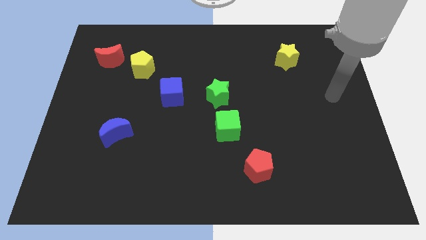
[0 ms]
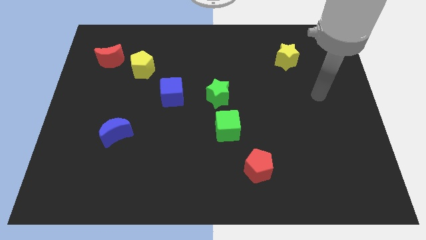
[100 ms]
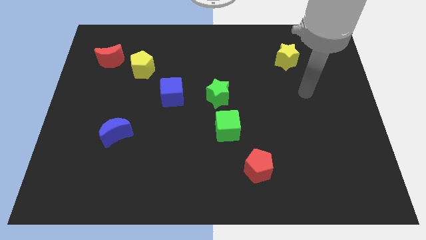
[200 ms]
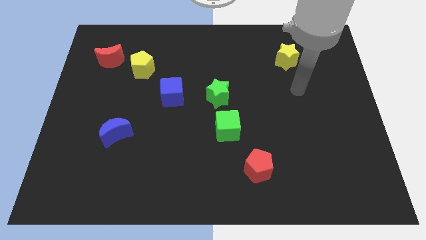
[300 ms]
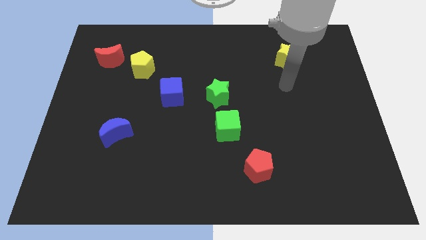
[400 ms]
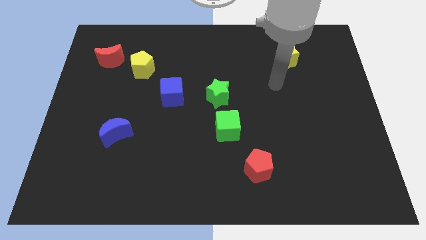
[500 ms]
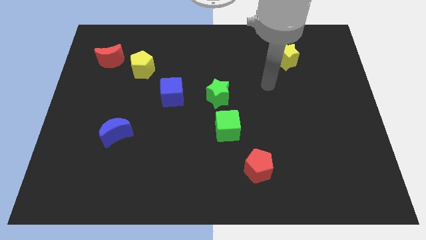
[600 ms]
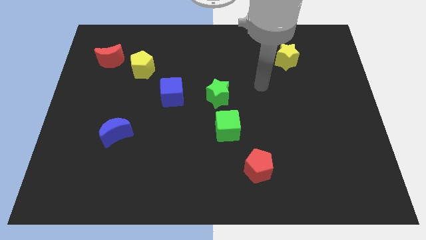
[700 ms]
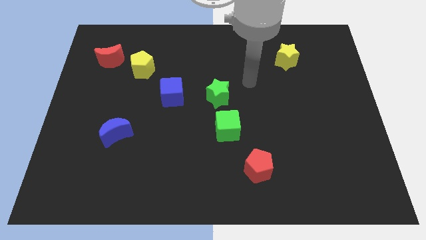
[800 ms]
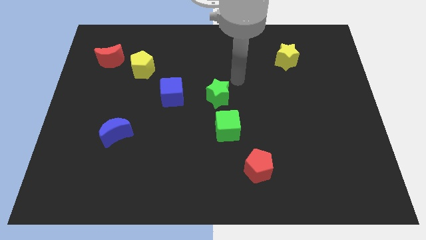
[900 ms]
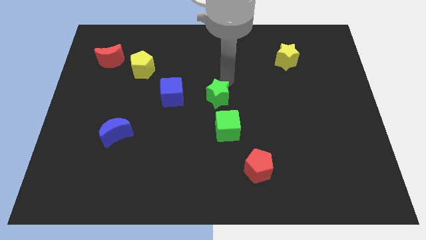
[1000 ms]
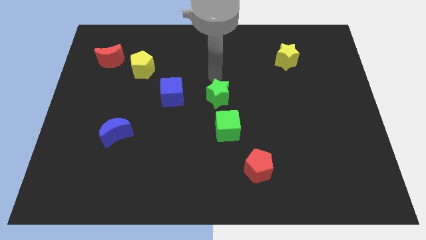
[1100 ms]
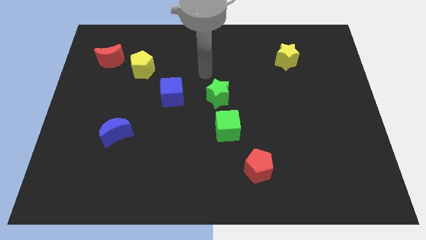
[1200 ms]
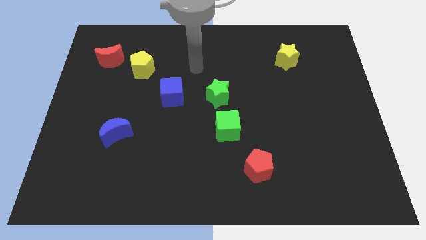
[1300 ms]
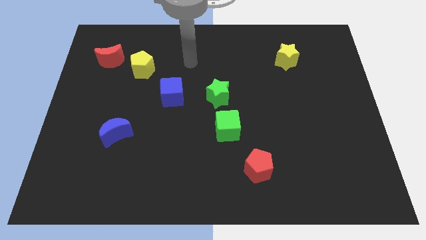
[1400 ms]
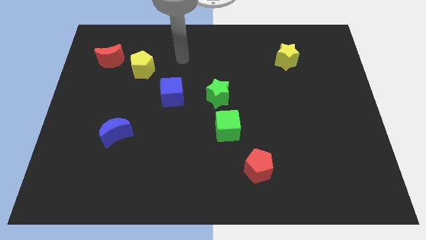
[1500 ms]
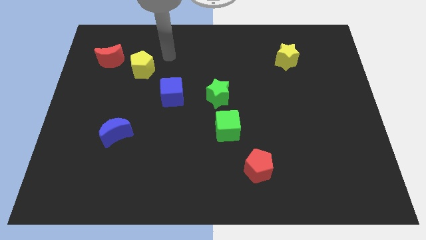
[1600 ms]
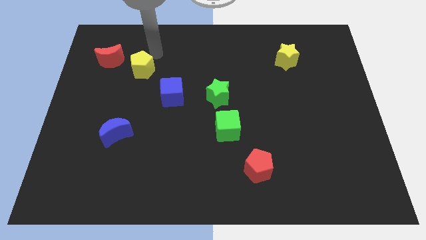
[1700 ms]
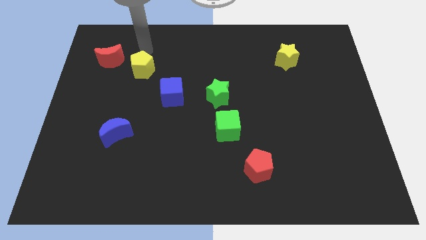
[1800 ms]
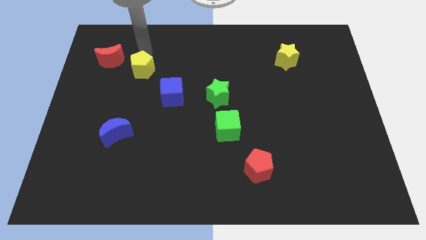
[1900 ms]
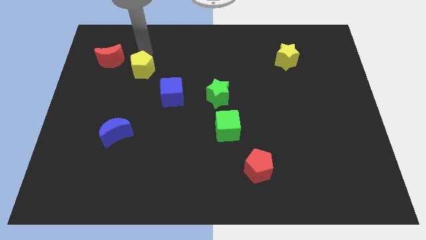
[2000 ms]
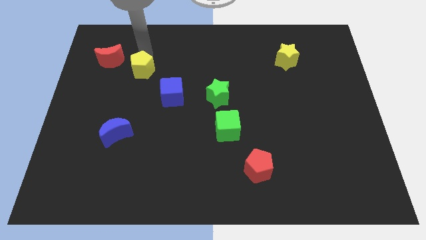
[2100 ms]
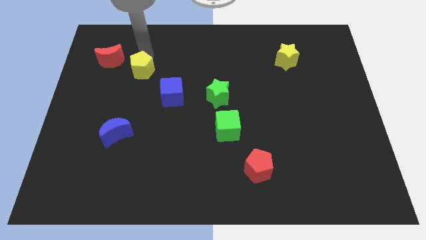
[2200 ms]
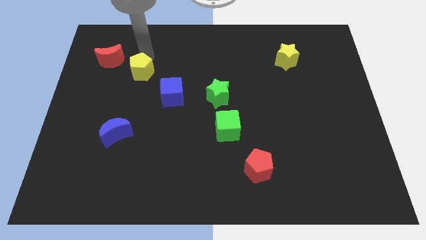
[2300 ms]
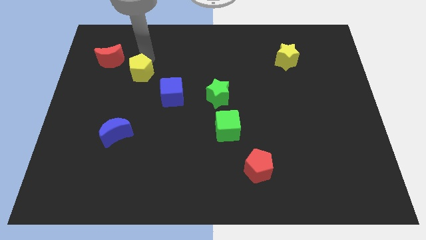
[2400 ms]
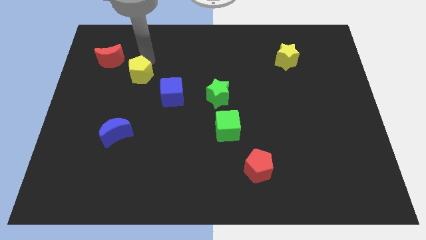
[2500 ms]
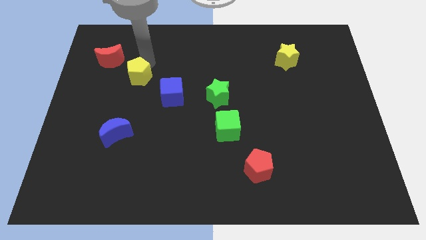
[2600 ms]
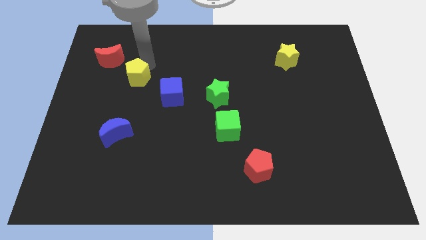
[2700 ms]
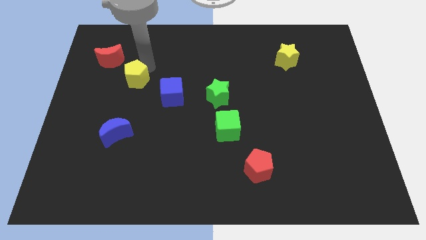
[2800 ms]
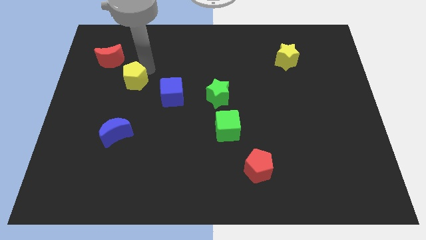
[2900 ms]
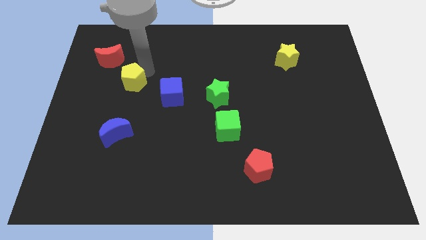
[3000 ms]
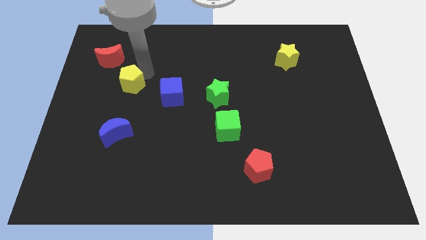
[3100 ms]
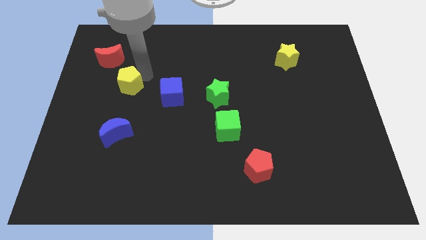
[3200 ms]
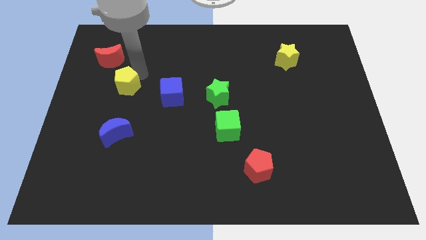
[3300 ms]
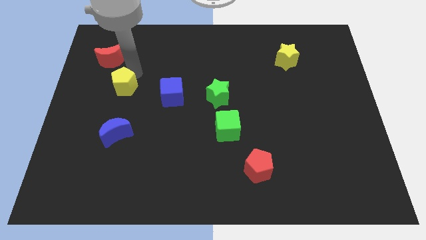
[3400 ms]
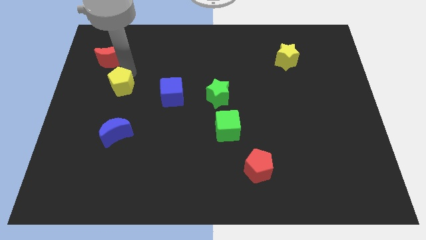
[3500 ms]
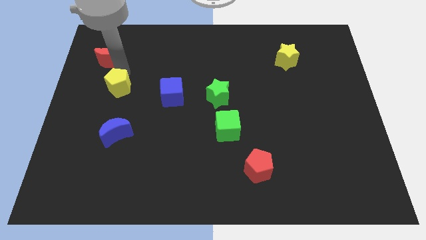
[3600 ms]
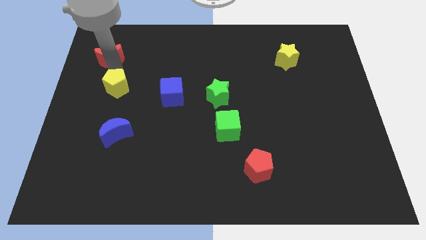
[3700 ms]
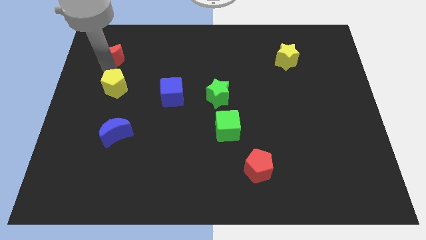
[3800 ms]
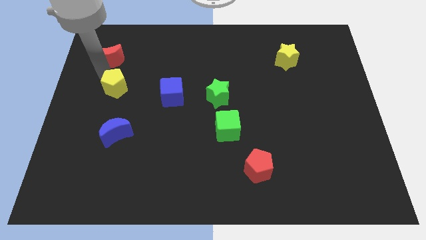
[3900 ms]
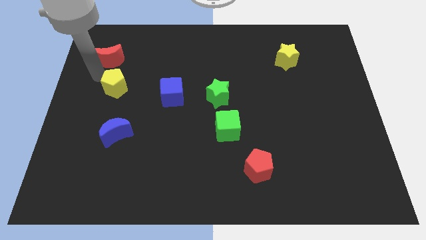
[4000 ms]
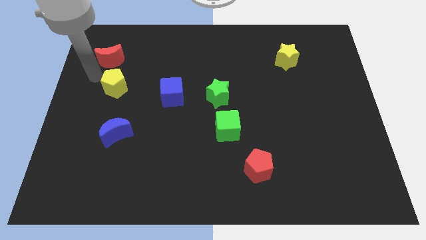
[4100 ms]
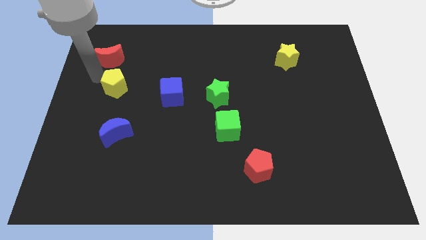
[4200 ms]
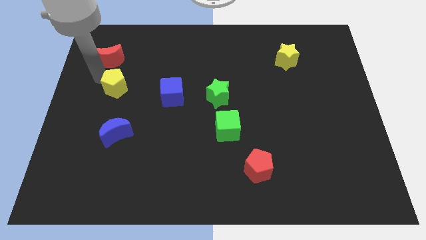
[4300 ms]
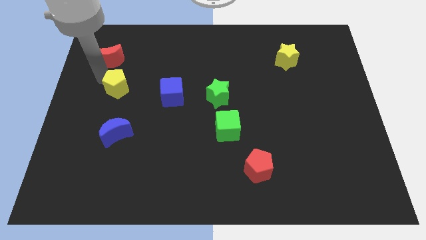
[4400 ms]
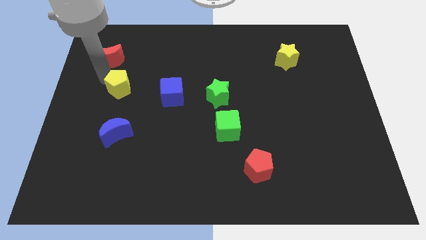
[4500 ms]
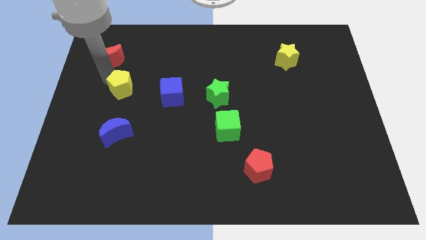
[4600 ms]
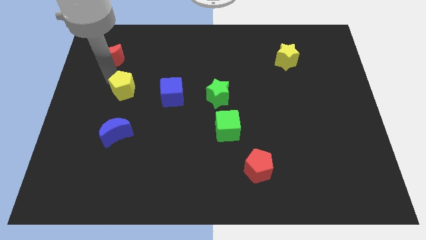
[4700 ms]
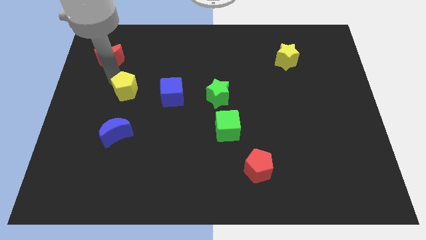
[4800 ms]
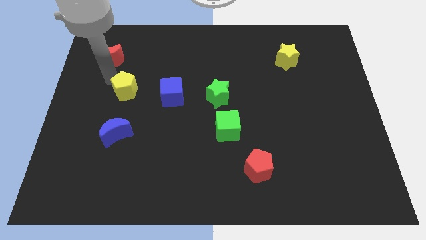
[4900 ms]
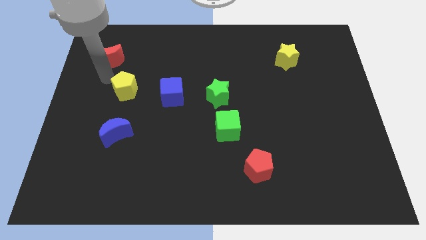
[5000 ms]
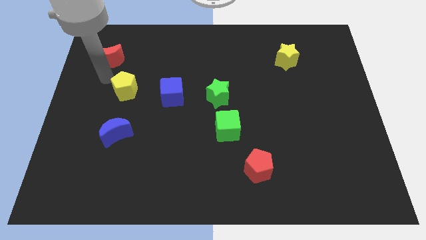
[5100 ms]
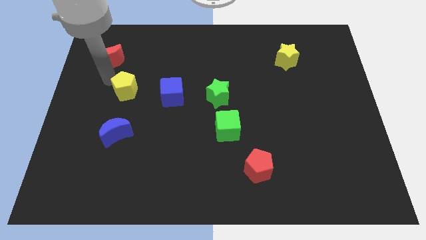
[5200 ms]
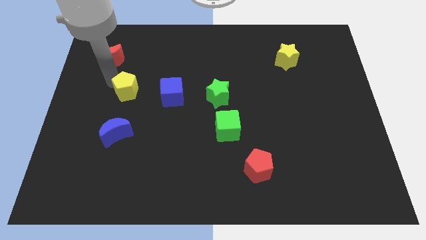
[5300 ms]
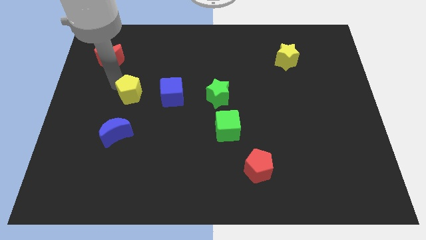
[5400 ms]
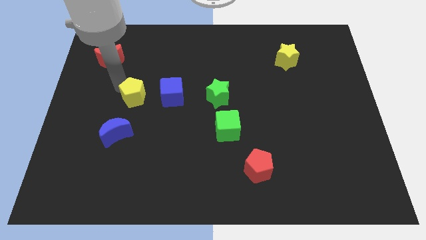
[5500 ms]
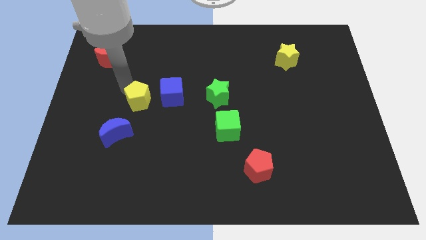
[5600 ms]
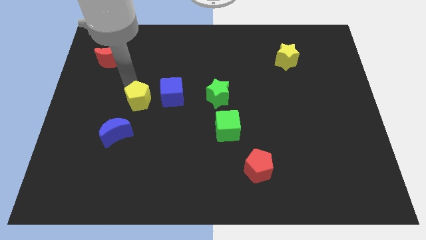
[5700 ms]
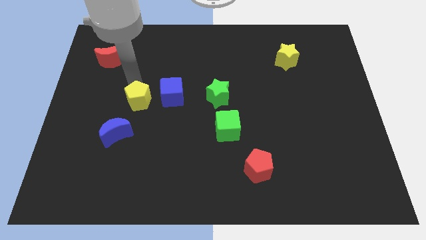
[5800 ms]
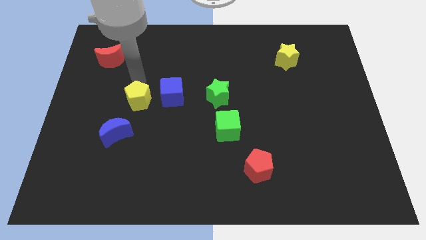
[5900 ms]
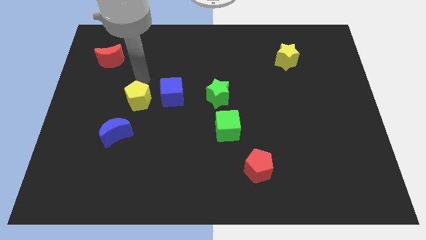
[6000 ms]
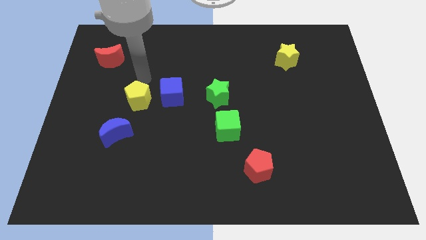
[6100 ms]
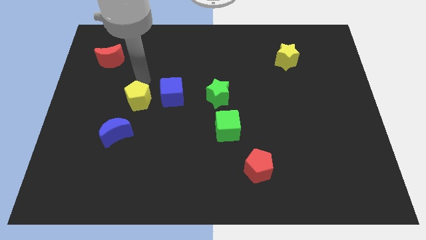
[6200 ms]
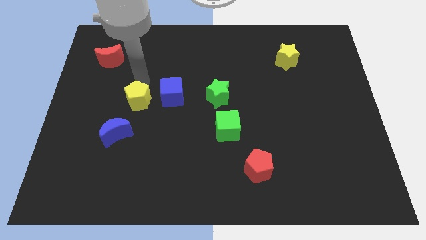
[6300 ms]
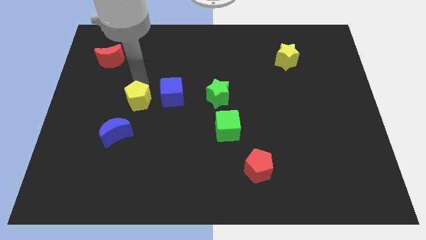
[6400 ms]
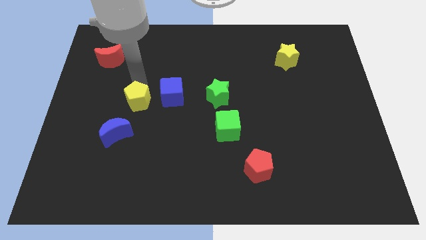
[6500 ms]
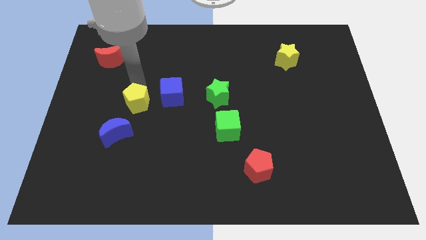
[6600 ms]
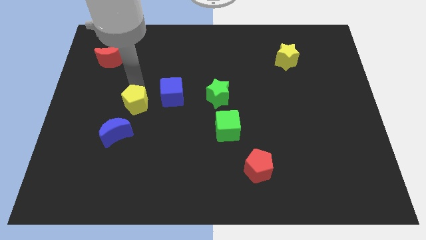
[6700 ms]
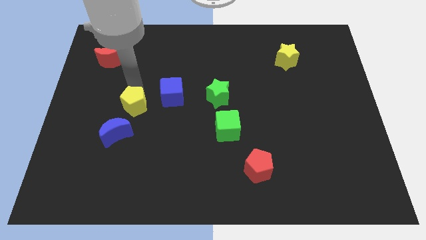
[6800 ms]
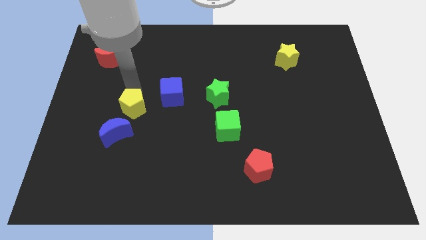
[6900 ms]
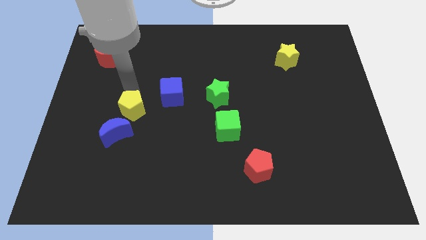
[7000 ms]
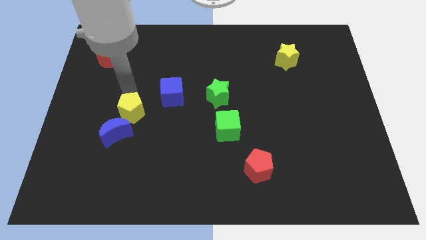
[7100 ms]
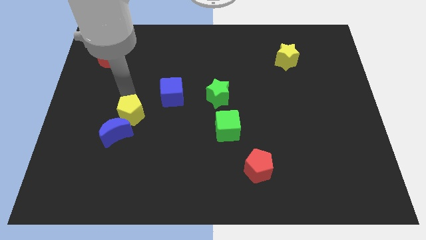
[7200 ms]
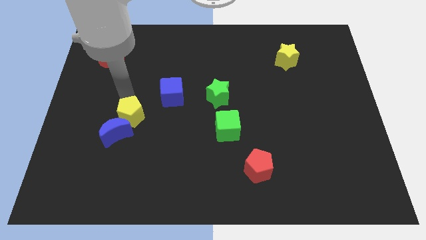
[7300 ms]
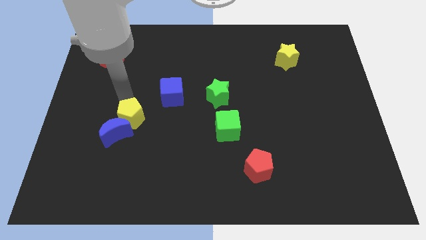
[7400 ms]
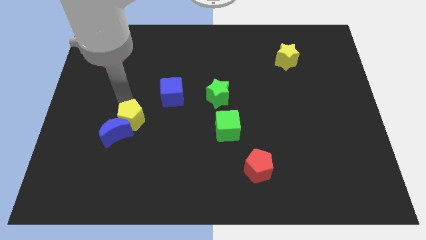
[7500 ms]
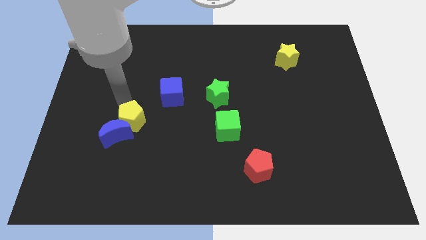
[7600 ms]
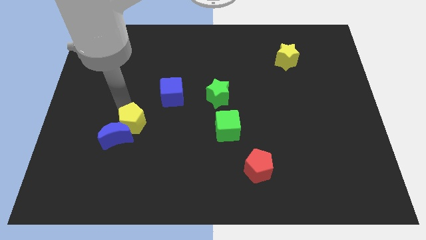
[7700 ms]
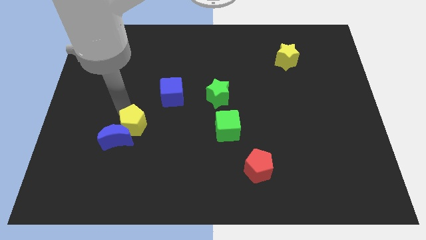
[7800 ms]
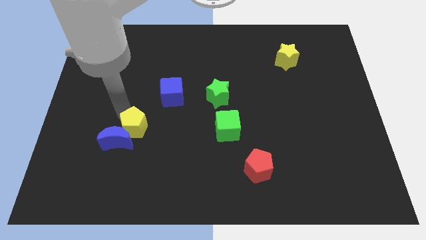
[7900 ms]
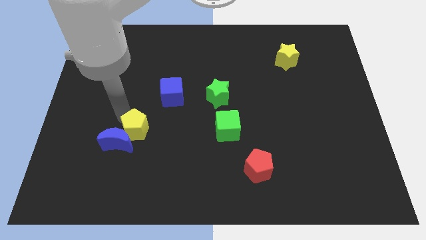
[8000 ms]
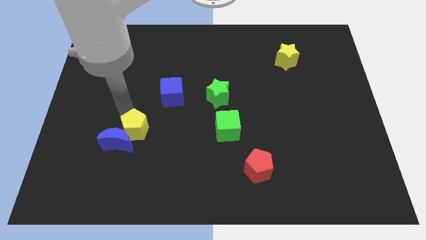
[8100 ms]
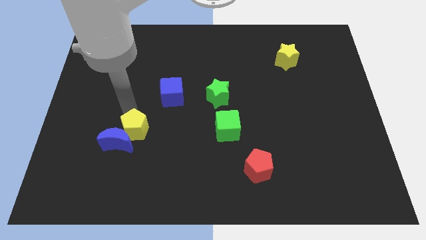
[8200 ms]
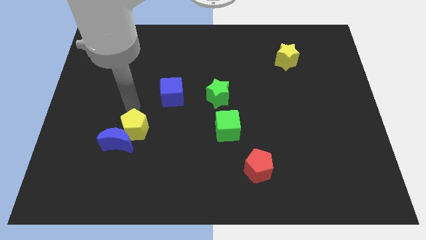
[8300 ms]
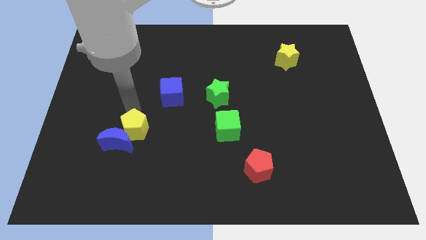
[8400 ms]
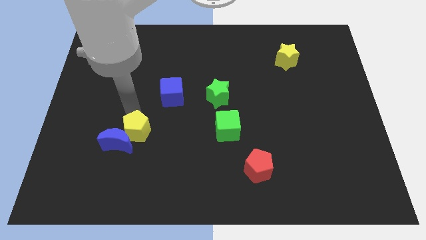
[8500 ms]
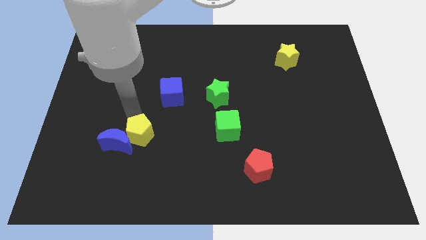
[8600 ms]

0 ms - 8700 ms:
push the yellow pentagon downwards
